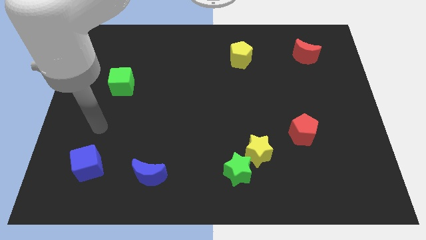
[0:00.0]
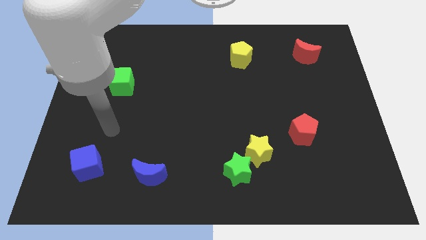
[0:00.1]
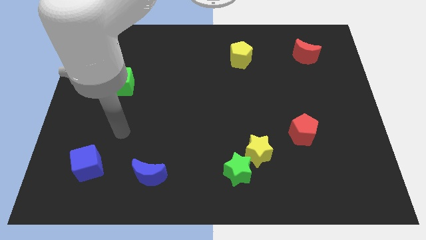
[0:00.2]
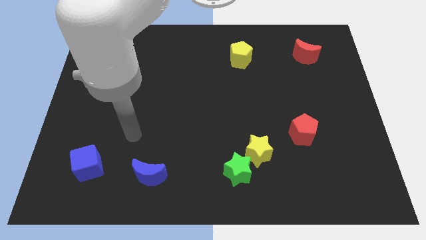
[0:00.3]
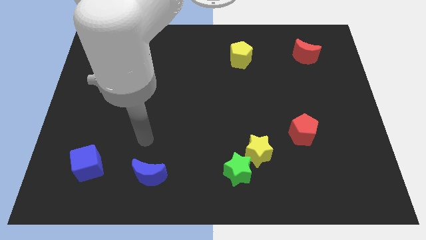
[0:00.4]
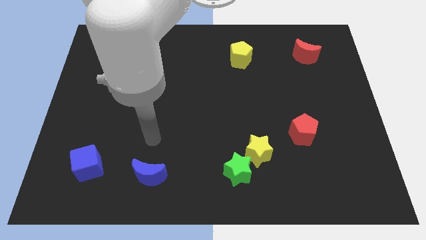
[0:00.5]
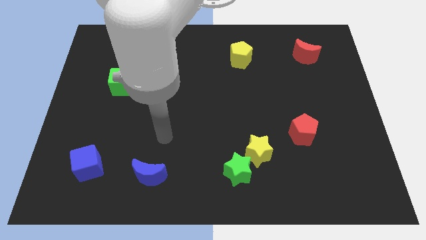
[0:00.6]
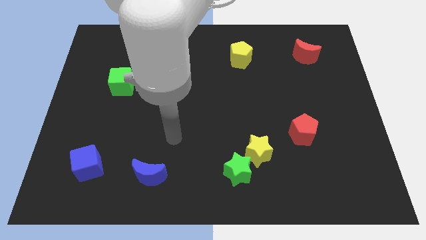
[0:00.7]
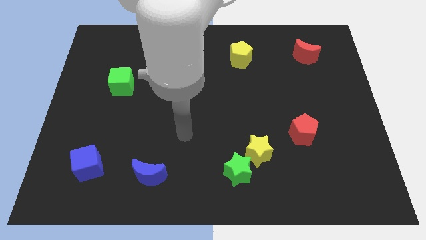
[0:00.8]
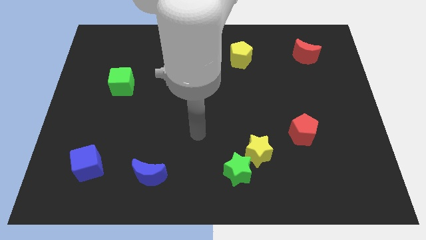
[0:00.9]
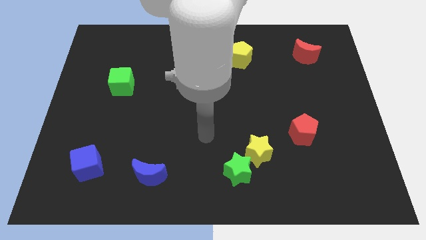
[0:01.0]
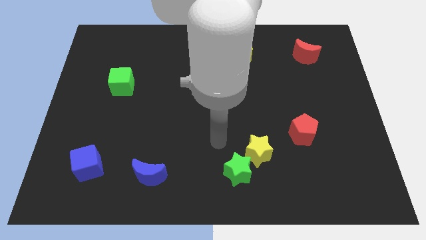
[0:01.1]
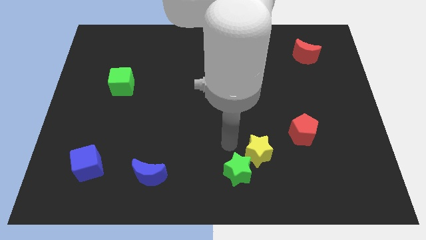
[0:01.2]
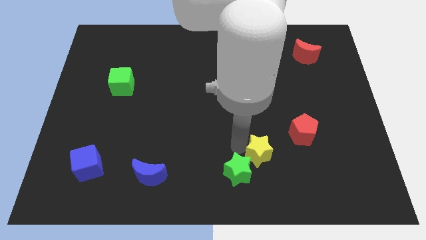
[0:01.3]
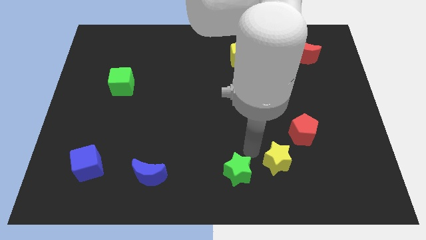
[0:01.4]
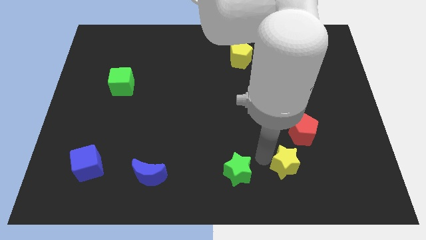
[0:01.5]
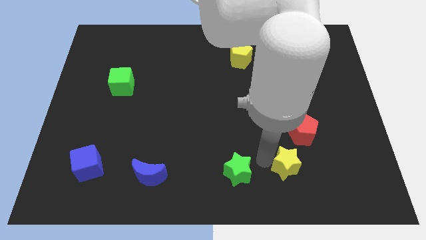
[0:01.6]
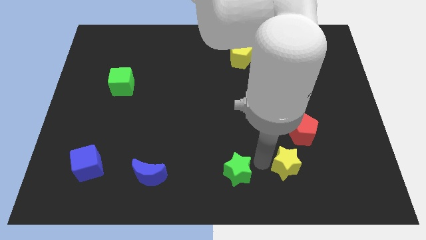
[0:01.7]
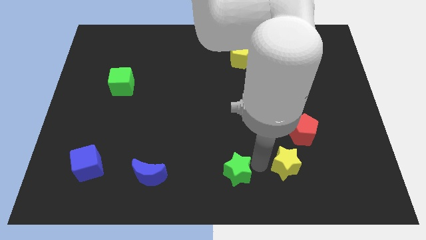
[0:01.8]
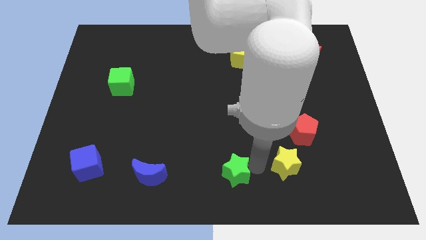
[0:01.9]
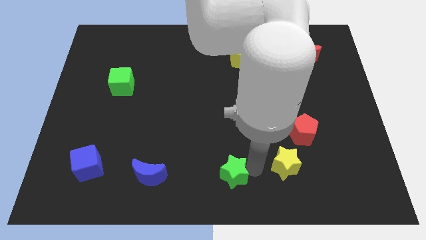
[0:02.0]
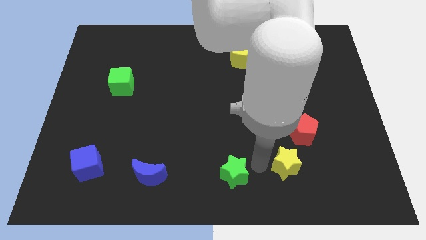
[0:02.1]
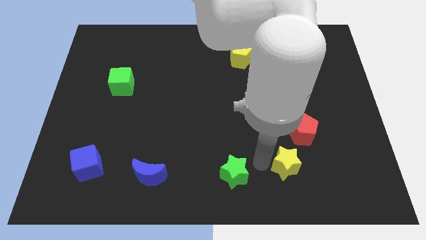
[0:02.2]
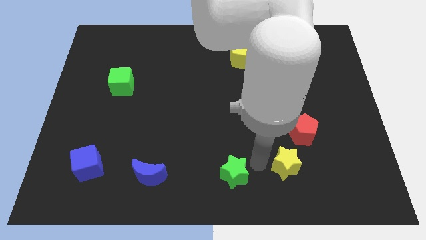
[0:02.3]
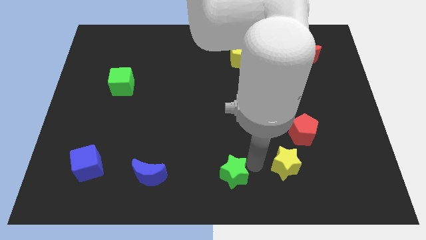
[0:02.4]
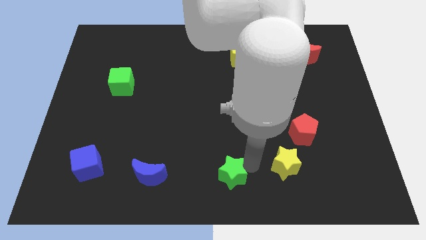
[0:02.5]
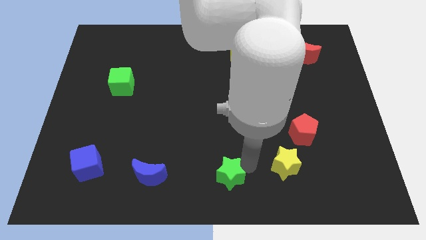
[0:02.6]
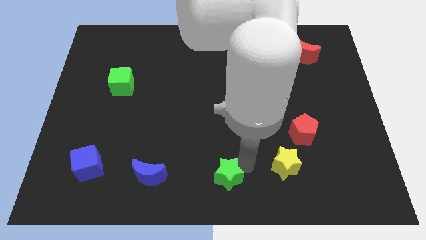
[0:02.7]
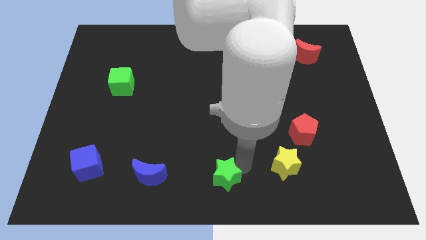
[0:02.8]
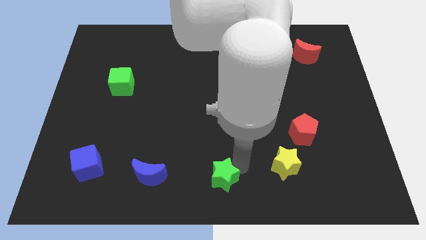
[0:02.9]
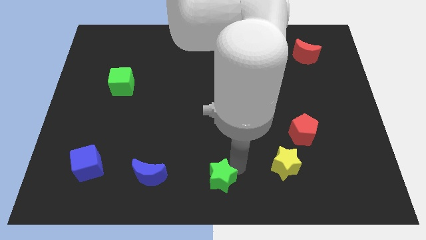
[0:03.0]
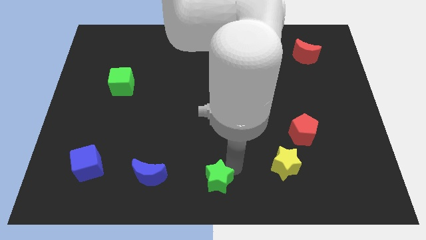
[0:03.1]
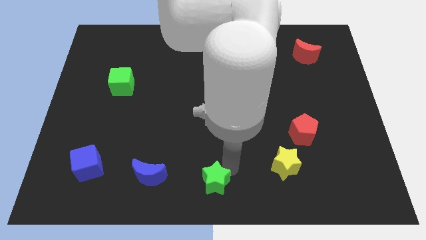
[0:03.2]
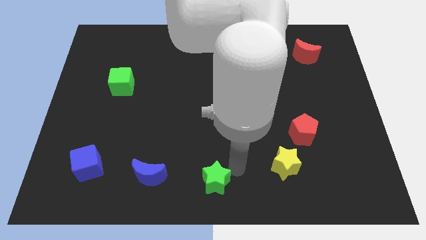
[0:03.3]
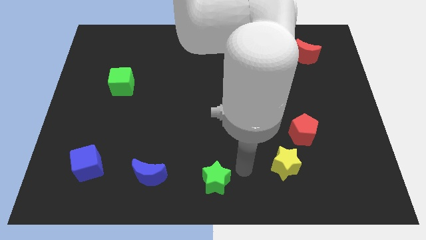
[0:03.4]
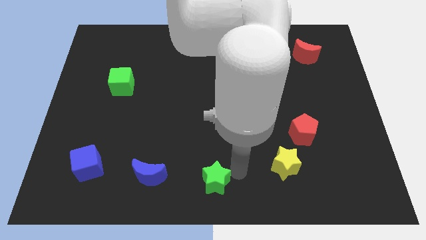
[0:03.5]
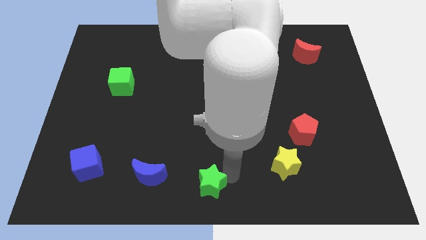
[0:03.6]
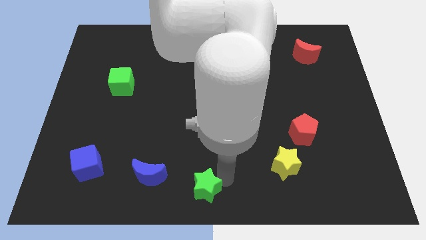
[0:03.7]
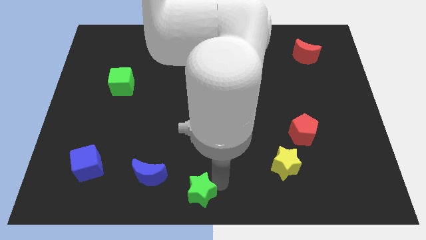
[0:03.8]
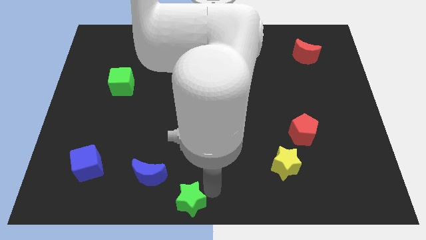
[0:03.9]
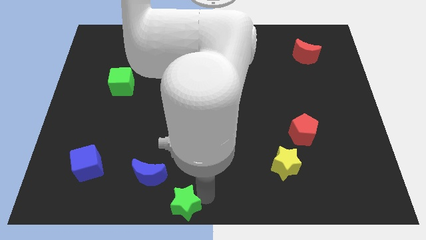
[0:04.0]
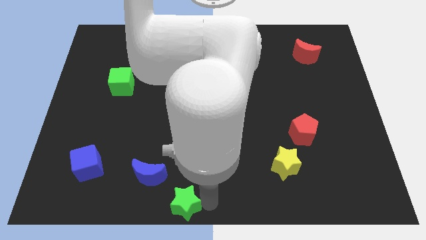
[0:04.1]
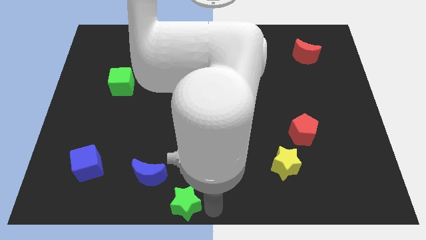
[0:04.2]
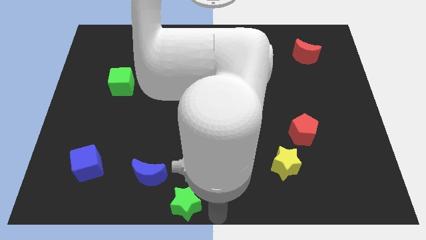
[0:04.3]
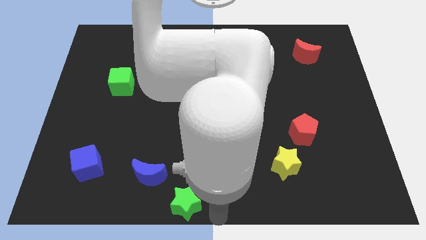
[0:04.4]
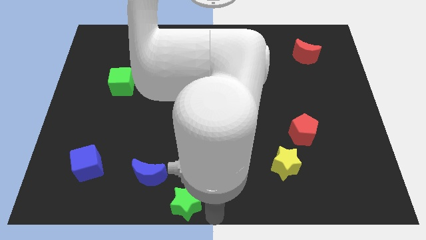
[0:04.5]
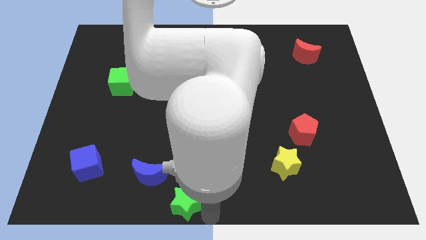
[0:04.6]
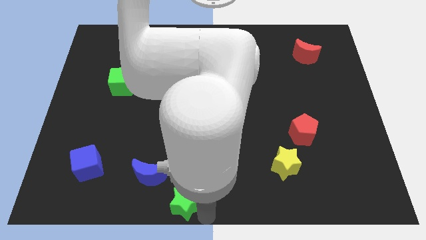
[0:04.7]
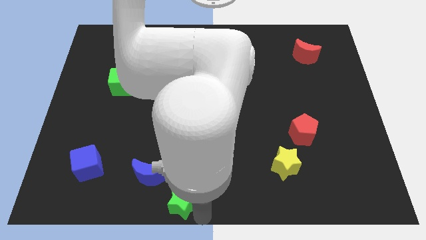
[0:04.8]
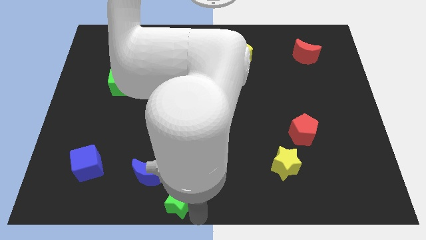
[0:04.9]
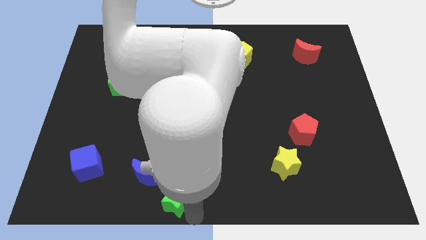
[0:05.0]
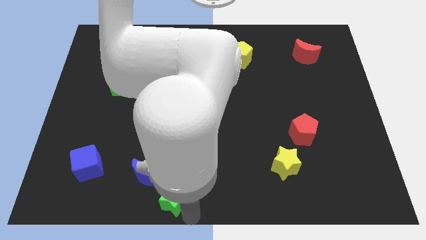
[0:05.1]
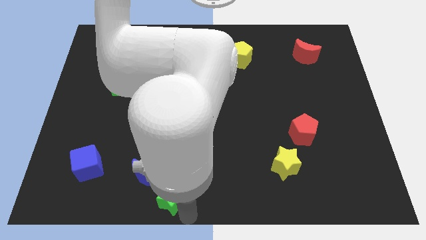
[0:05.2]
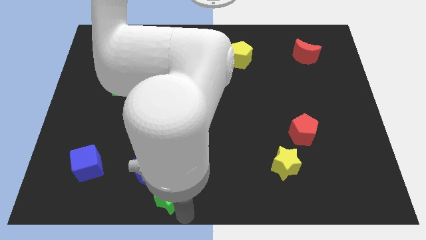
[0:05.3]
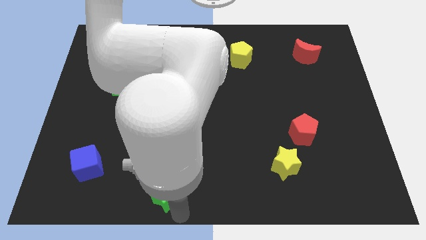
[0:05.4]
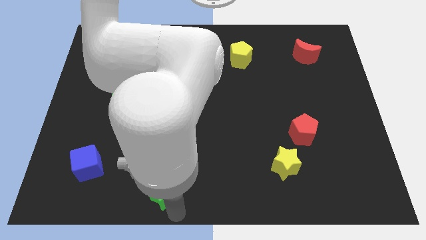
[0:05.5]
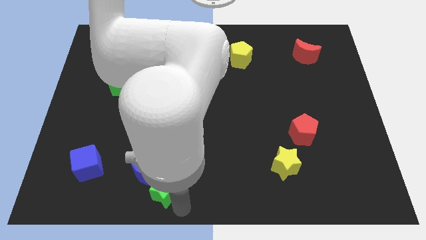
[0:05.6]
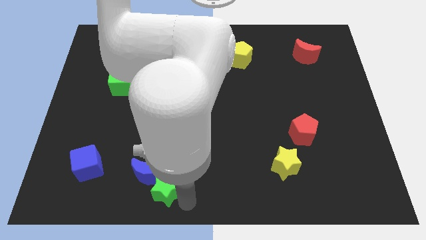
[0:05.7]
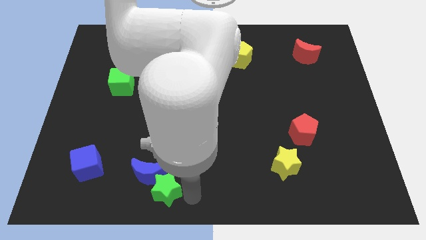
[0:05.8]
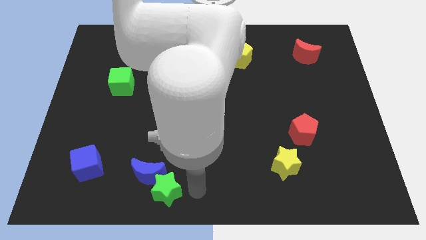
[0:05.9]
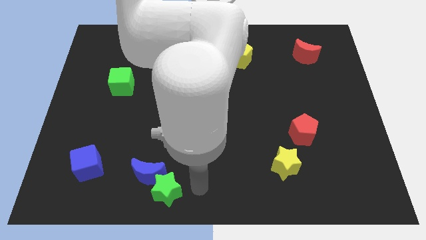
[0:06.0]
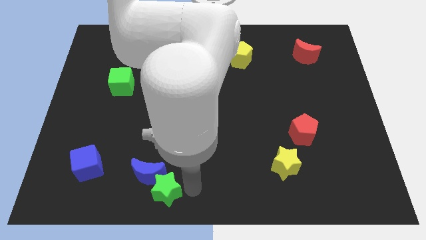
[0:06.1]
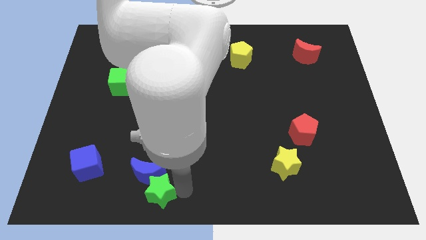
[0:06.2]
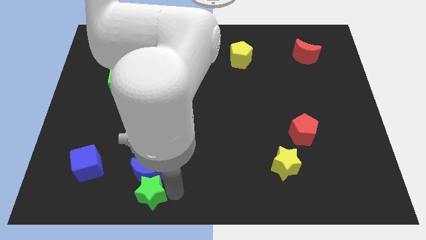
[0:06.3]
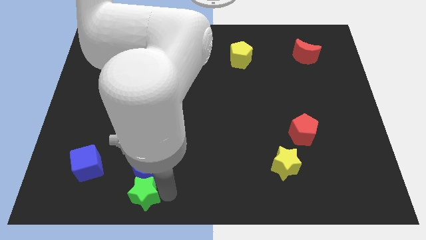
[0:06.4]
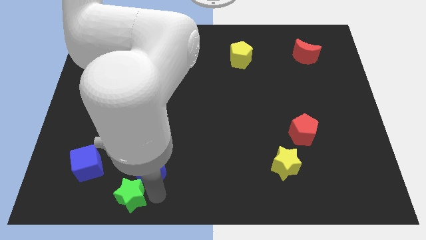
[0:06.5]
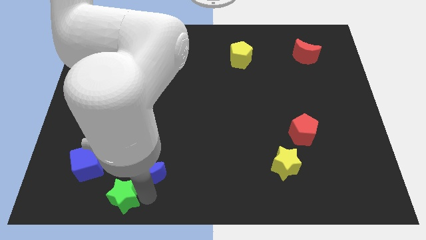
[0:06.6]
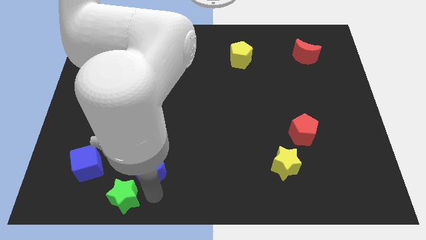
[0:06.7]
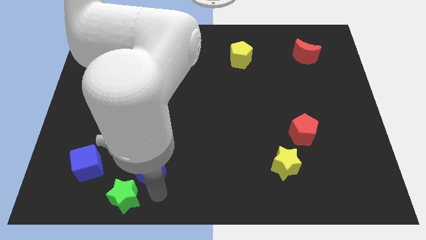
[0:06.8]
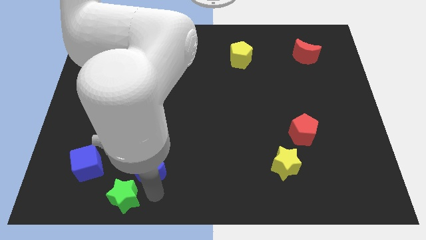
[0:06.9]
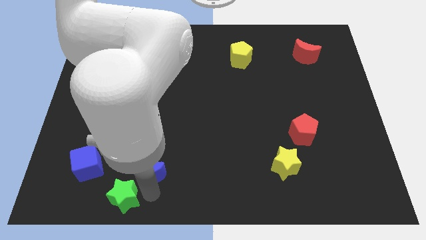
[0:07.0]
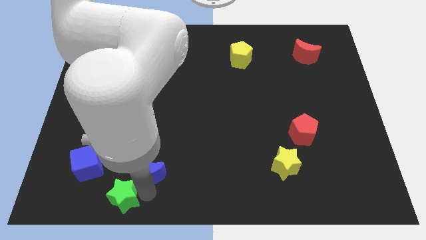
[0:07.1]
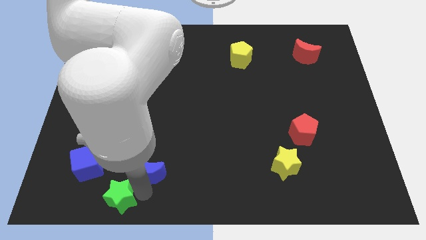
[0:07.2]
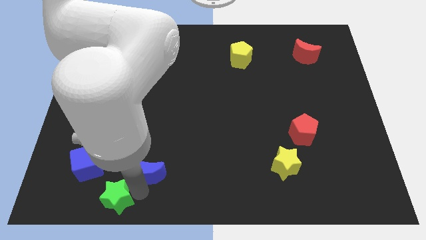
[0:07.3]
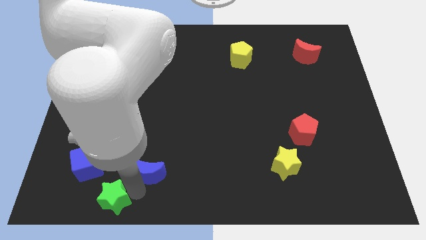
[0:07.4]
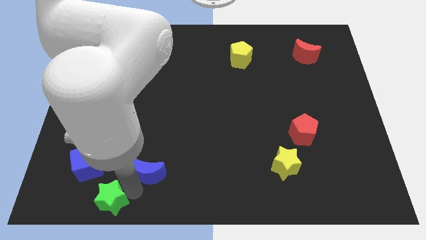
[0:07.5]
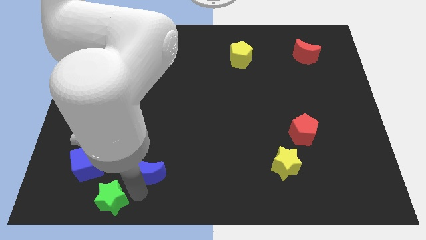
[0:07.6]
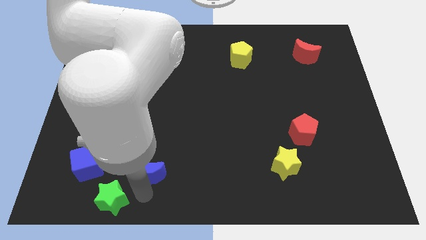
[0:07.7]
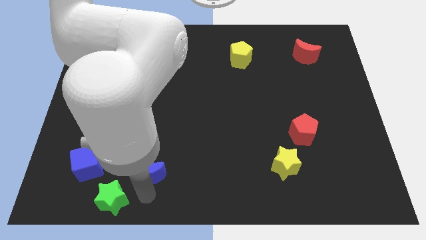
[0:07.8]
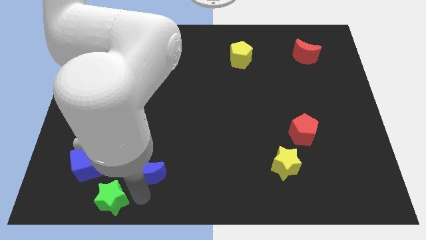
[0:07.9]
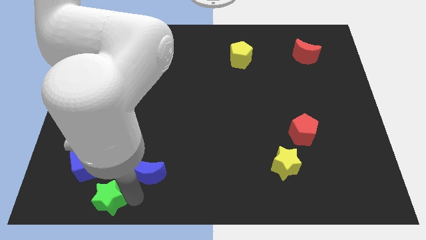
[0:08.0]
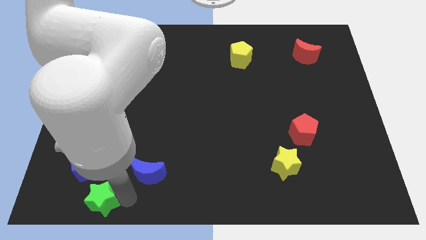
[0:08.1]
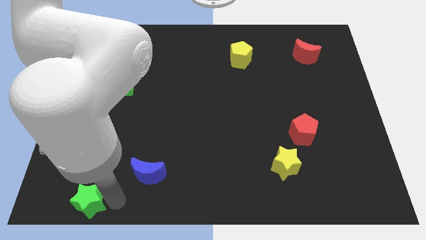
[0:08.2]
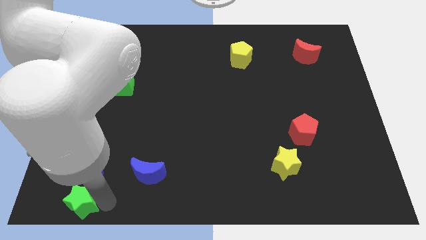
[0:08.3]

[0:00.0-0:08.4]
push the green star to the lower left corner
